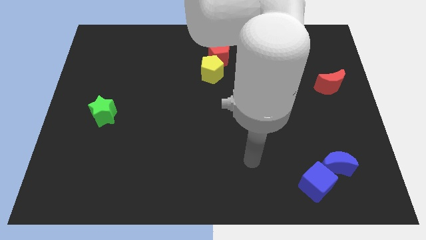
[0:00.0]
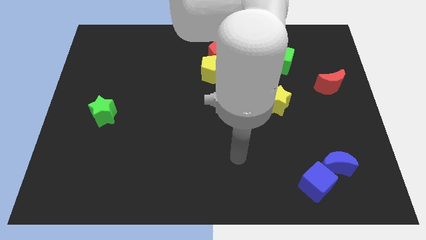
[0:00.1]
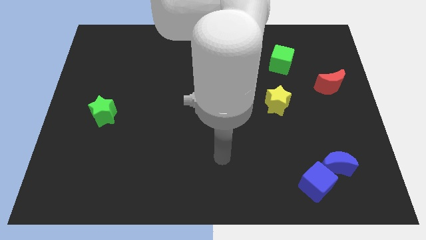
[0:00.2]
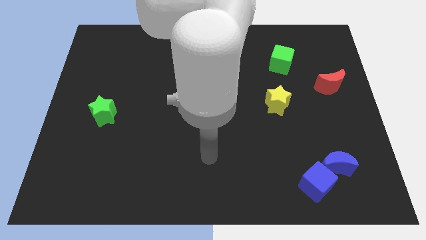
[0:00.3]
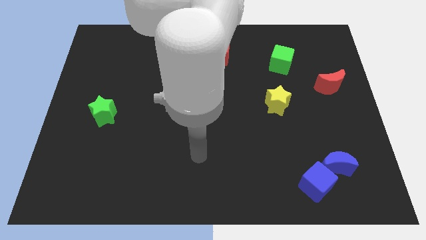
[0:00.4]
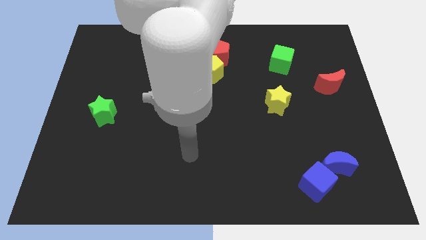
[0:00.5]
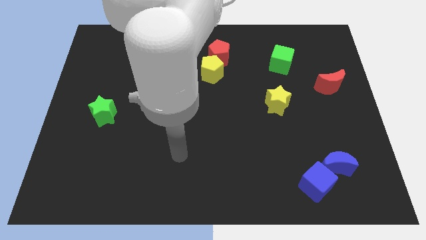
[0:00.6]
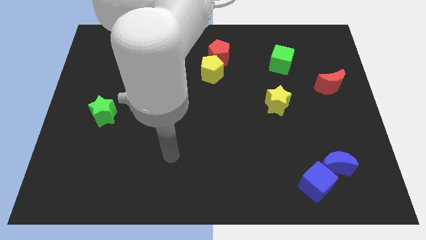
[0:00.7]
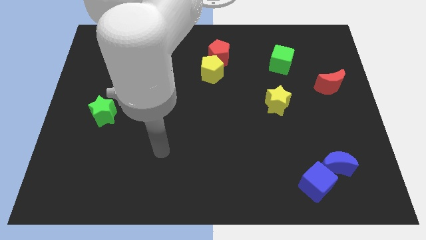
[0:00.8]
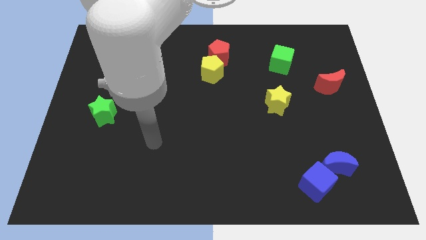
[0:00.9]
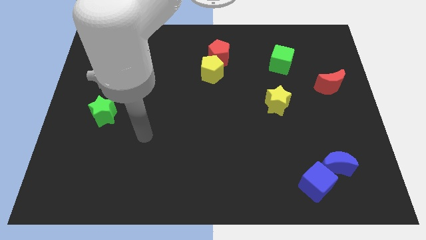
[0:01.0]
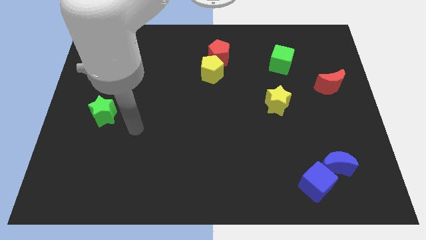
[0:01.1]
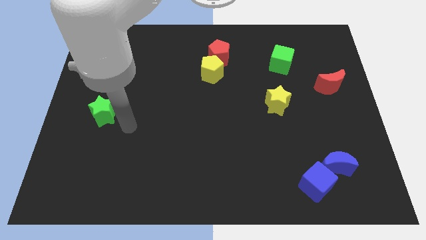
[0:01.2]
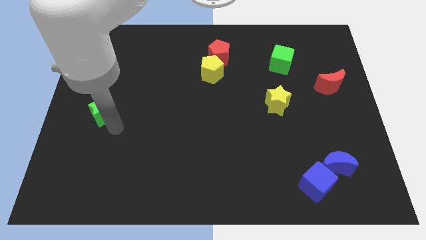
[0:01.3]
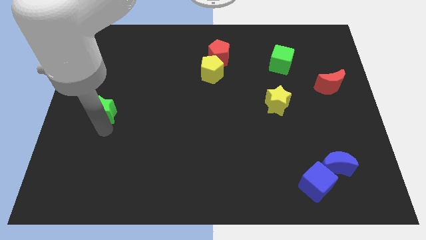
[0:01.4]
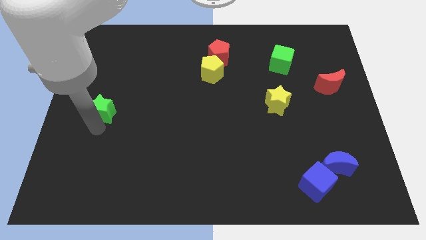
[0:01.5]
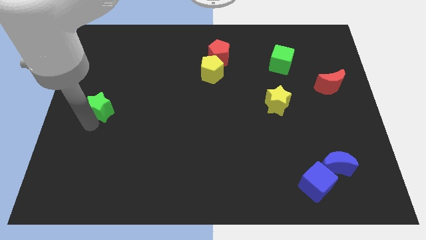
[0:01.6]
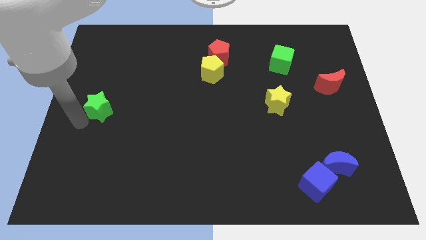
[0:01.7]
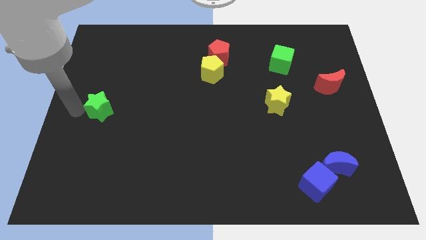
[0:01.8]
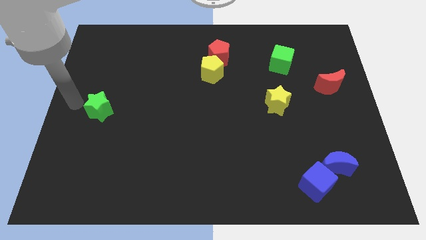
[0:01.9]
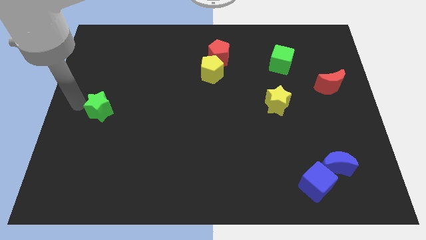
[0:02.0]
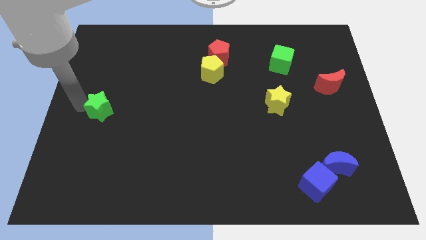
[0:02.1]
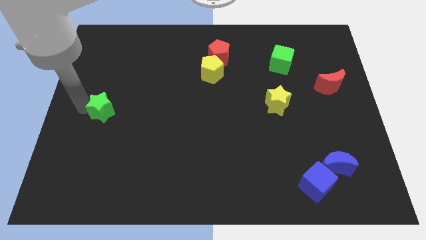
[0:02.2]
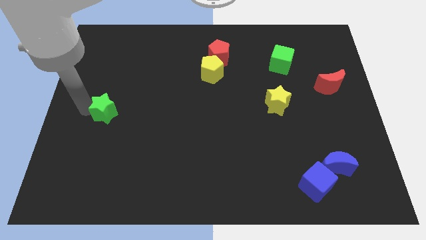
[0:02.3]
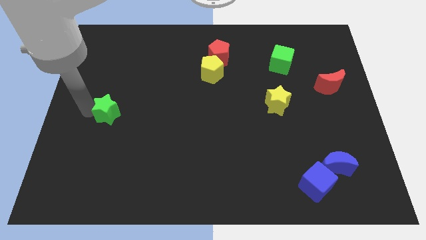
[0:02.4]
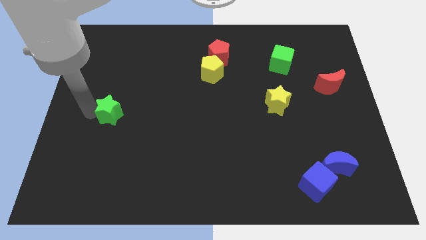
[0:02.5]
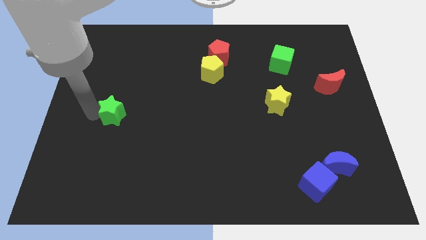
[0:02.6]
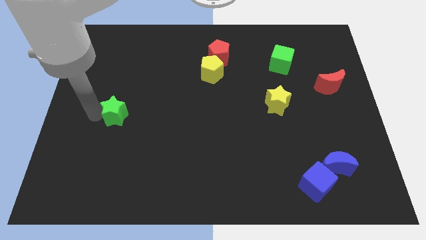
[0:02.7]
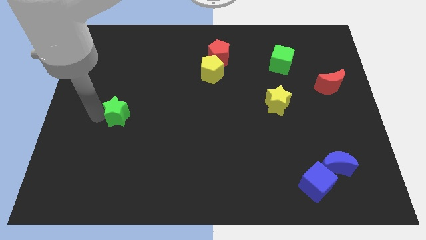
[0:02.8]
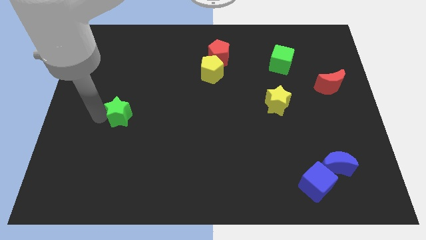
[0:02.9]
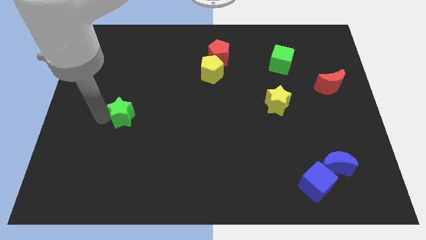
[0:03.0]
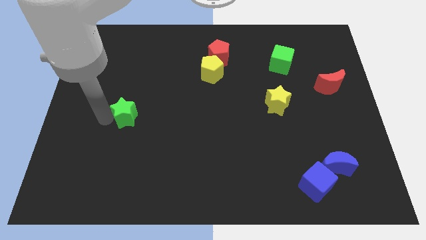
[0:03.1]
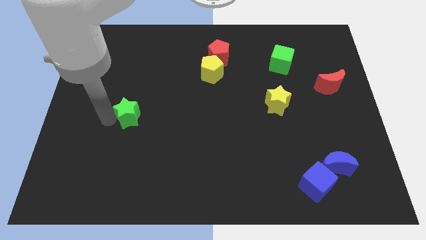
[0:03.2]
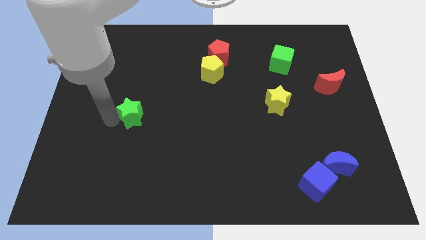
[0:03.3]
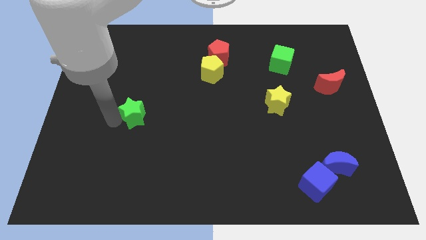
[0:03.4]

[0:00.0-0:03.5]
push the green star a little bit right

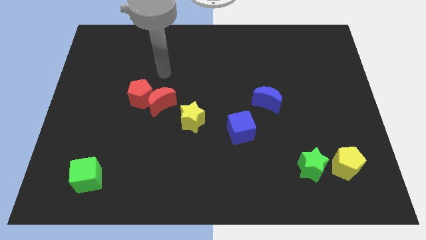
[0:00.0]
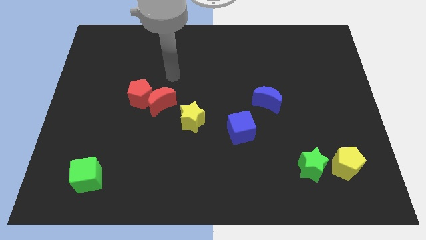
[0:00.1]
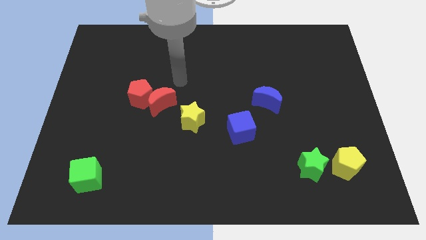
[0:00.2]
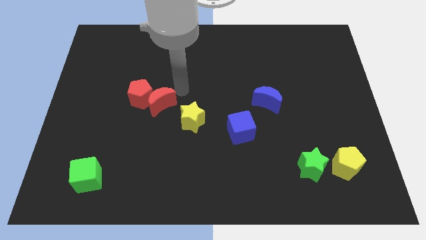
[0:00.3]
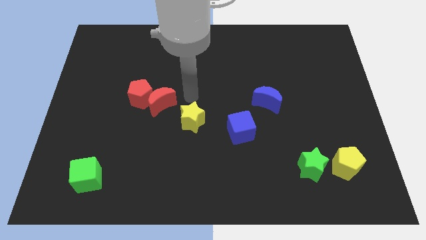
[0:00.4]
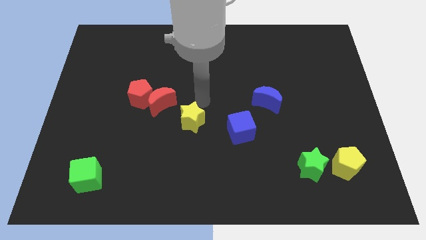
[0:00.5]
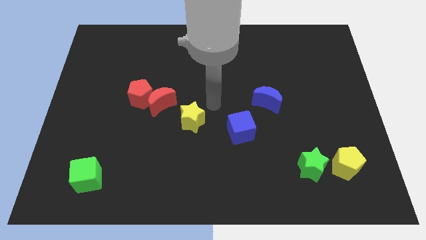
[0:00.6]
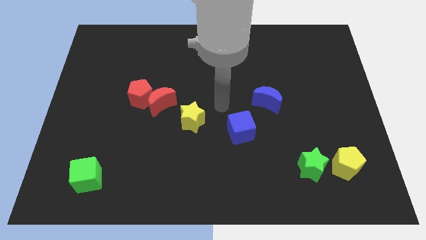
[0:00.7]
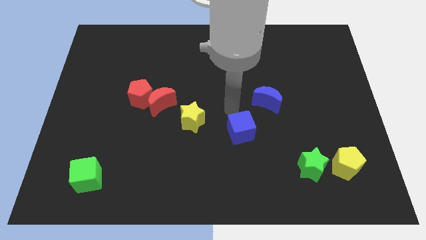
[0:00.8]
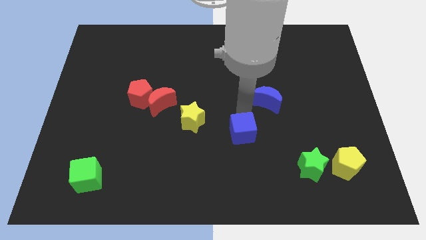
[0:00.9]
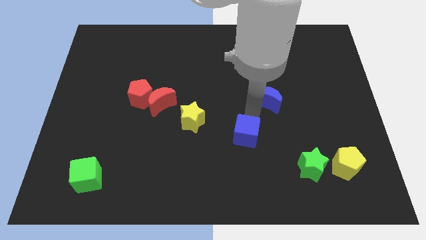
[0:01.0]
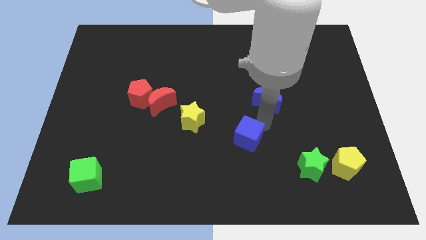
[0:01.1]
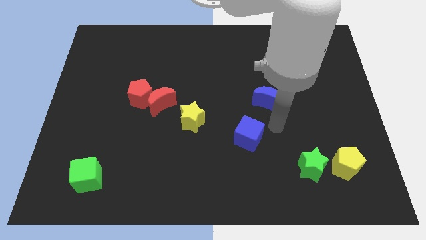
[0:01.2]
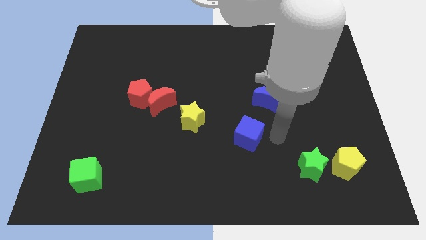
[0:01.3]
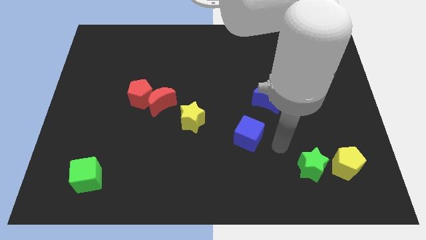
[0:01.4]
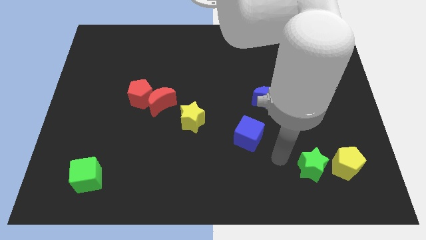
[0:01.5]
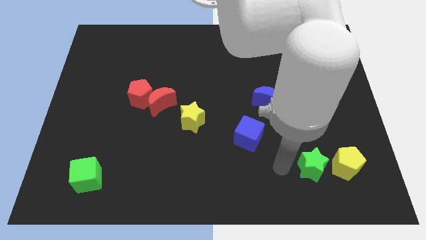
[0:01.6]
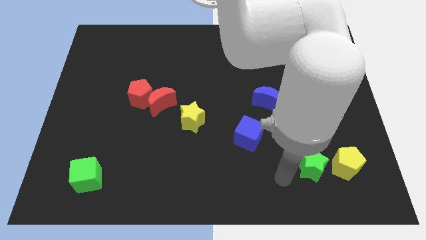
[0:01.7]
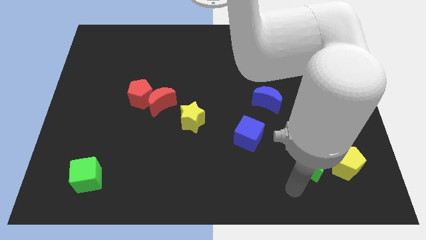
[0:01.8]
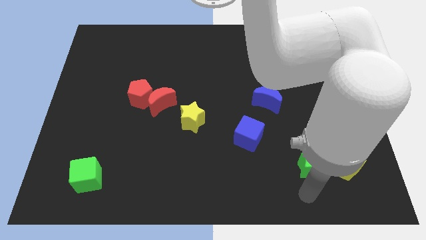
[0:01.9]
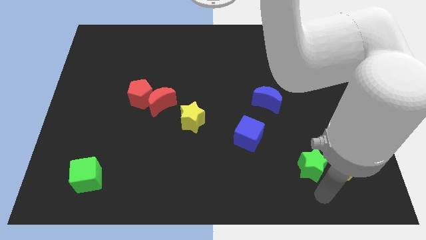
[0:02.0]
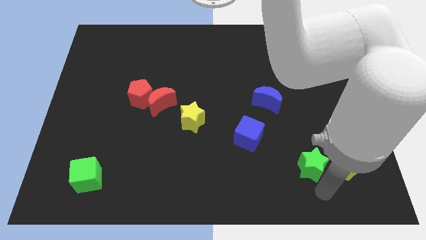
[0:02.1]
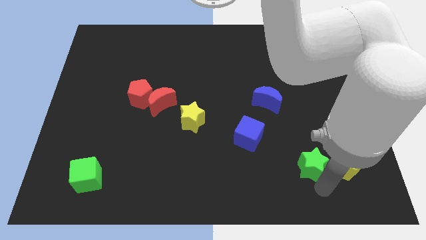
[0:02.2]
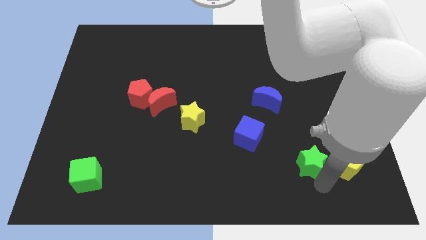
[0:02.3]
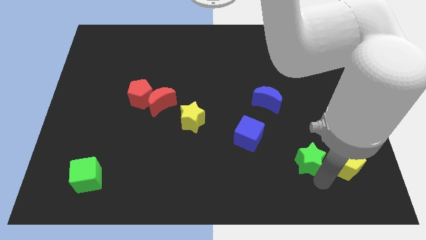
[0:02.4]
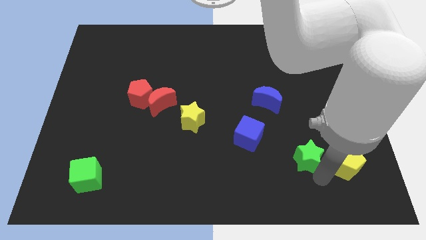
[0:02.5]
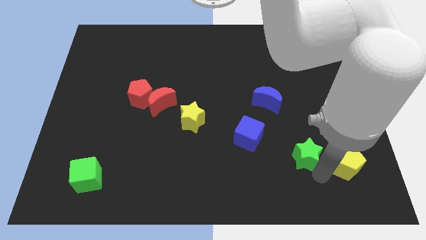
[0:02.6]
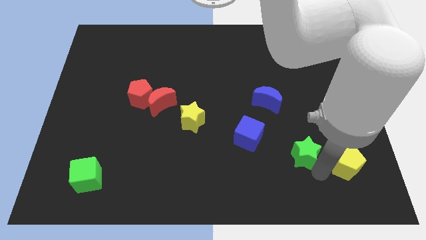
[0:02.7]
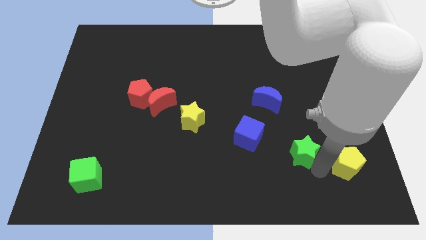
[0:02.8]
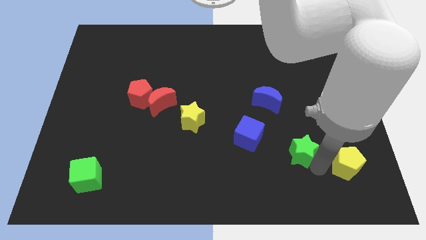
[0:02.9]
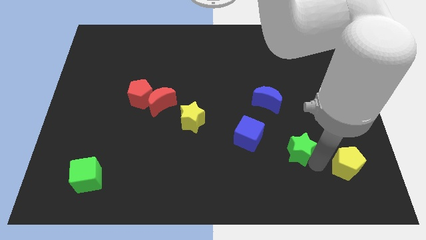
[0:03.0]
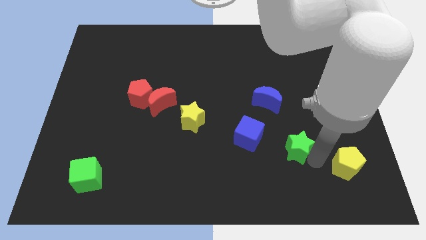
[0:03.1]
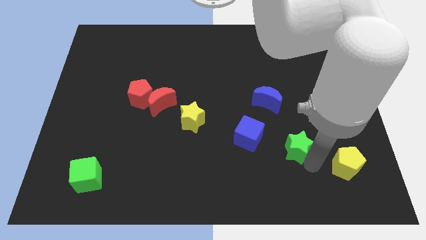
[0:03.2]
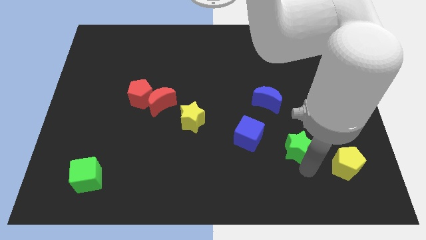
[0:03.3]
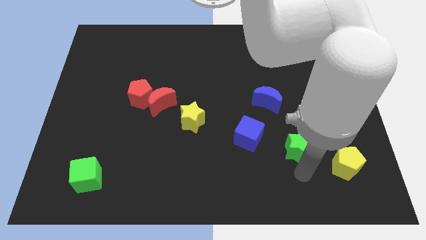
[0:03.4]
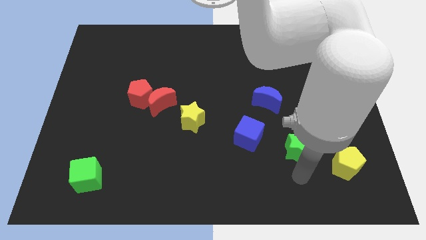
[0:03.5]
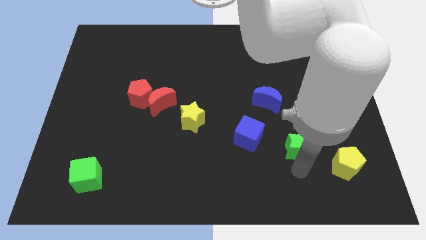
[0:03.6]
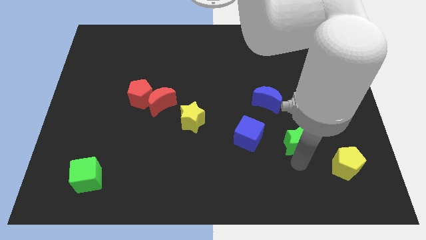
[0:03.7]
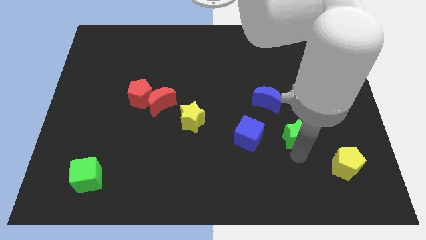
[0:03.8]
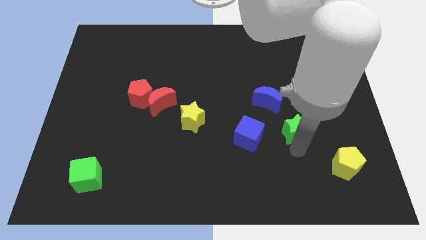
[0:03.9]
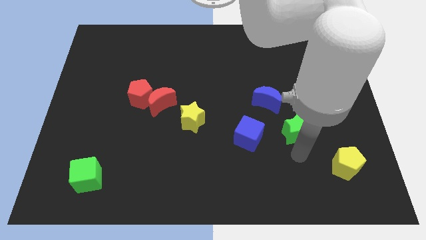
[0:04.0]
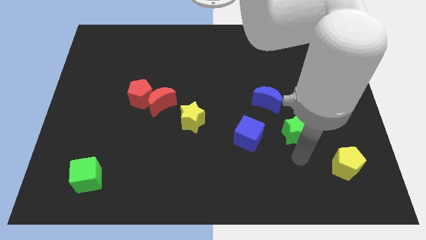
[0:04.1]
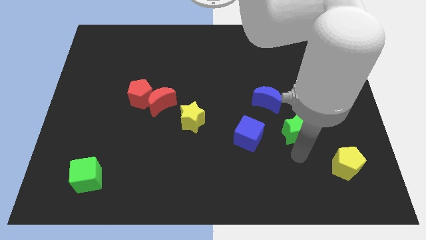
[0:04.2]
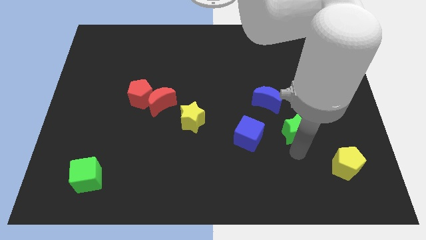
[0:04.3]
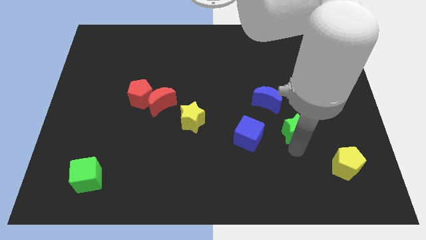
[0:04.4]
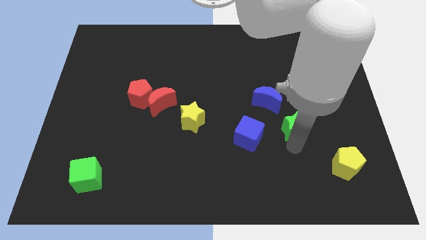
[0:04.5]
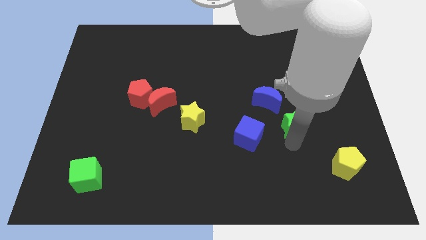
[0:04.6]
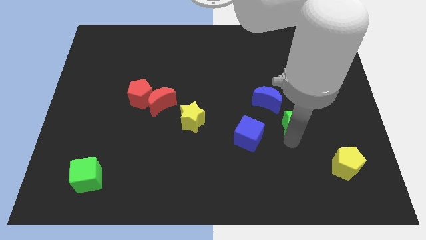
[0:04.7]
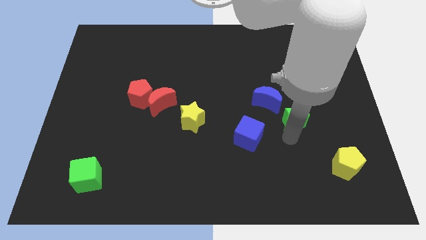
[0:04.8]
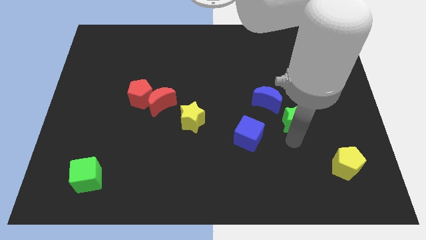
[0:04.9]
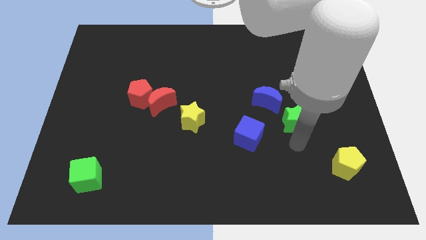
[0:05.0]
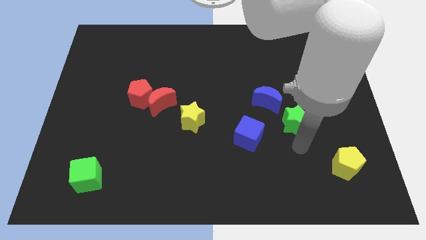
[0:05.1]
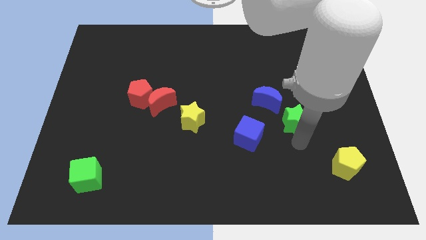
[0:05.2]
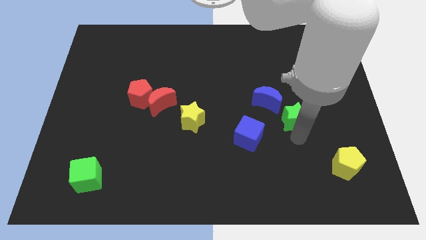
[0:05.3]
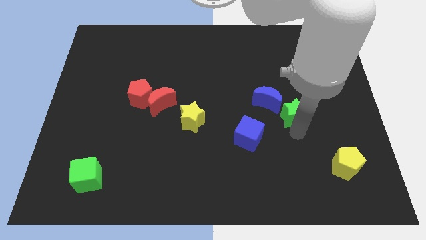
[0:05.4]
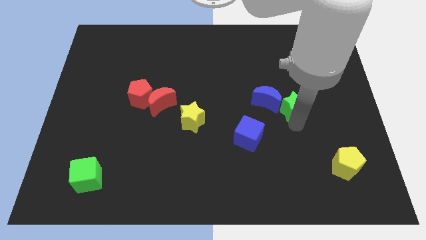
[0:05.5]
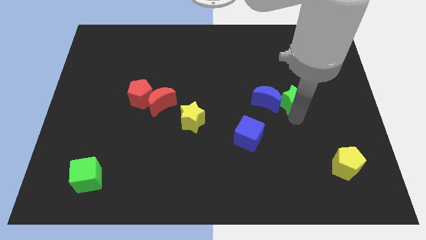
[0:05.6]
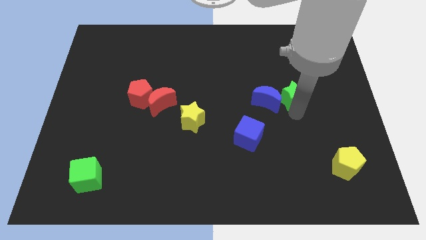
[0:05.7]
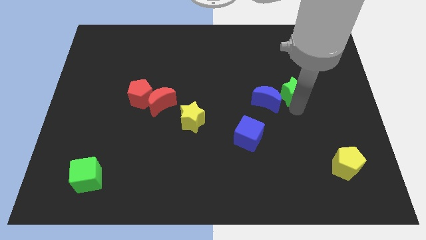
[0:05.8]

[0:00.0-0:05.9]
move the green star upwards
